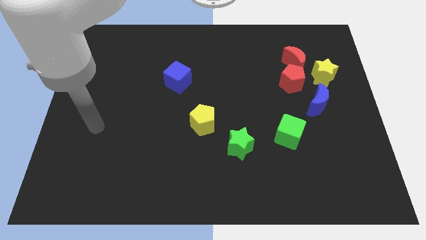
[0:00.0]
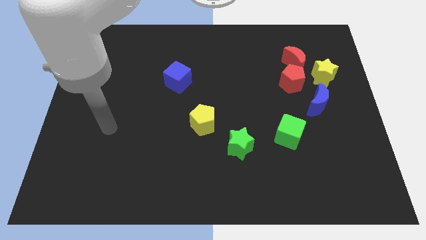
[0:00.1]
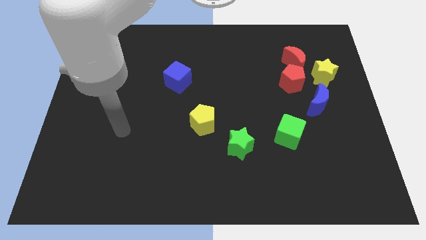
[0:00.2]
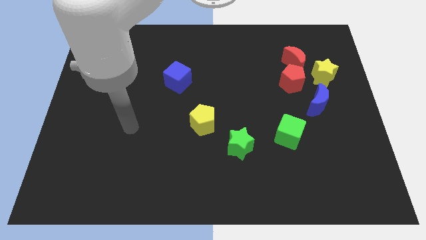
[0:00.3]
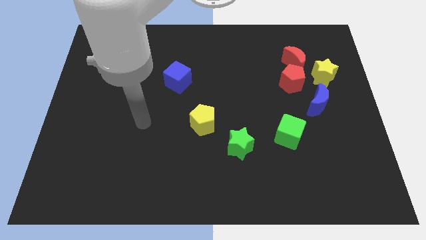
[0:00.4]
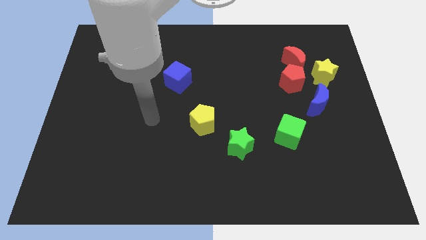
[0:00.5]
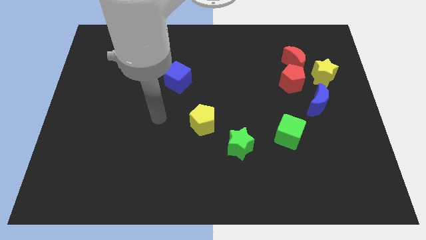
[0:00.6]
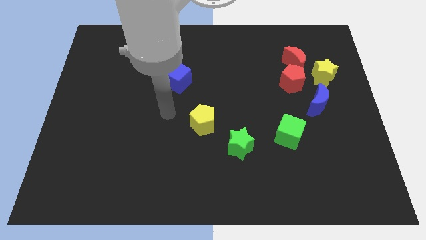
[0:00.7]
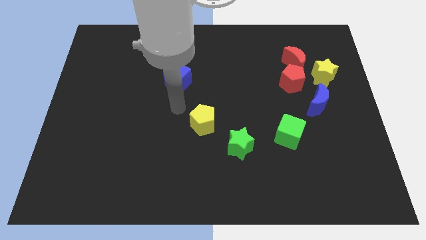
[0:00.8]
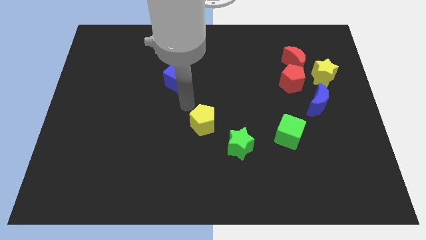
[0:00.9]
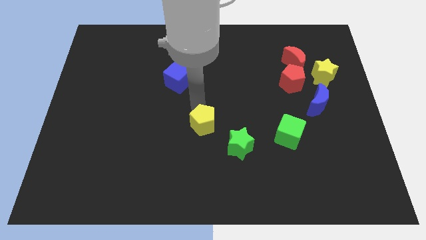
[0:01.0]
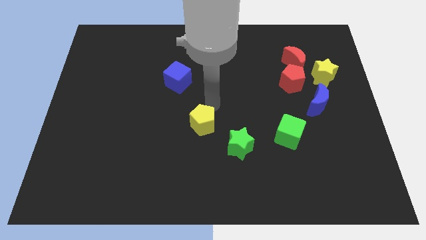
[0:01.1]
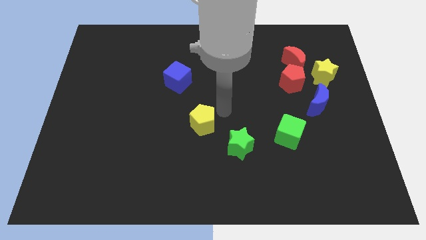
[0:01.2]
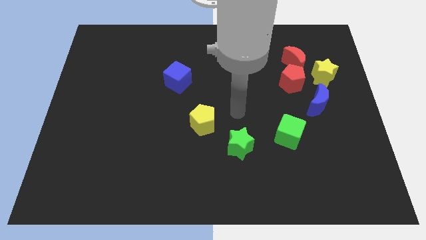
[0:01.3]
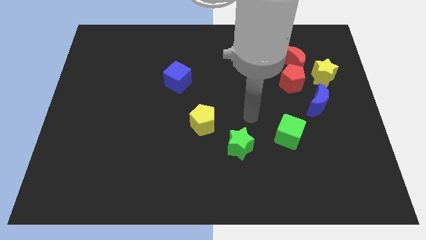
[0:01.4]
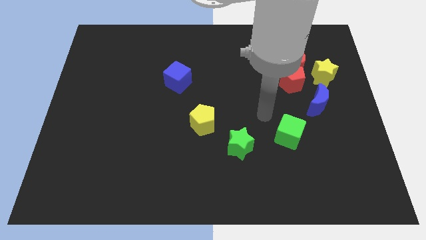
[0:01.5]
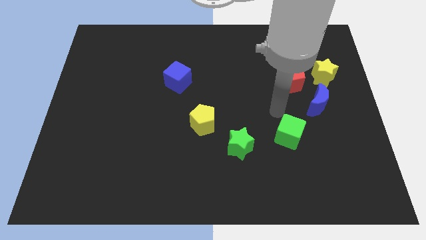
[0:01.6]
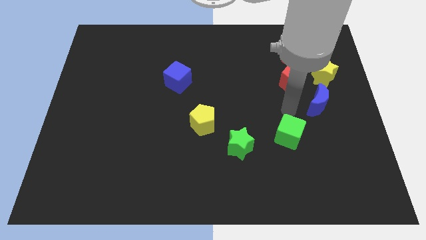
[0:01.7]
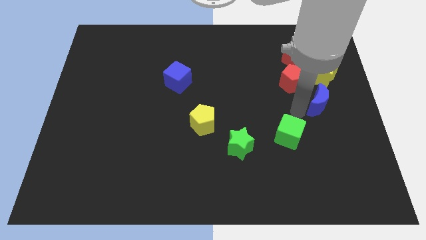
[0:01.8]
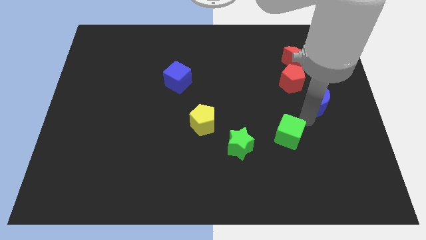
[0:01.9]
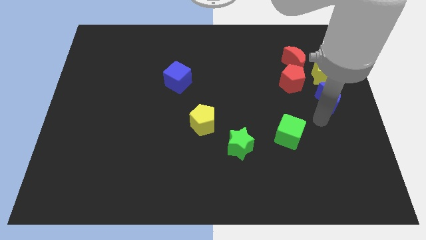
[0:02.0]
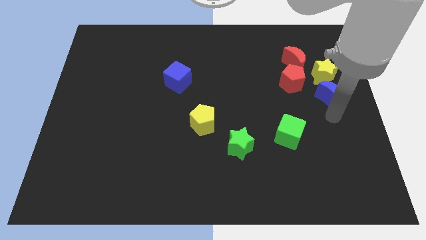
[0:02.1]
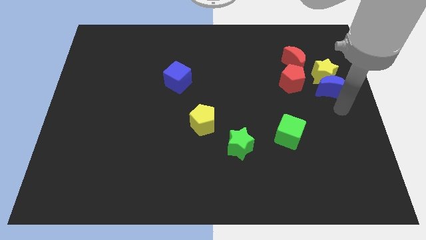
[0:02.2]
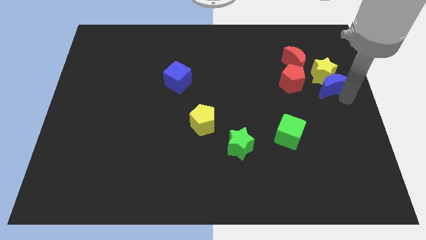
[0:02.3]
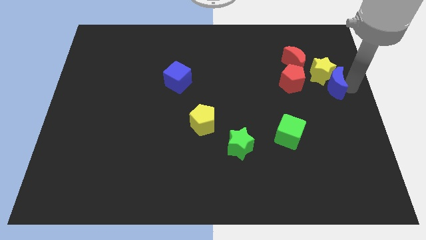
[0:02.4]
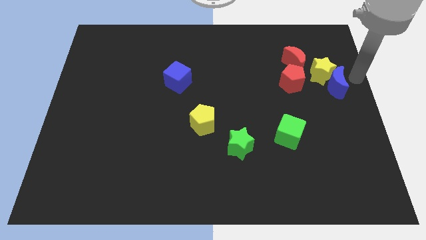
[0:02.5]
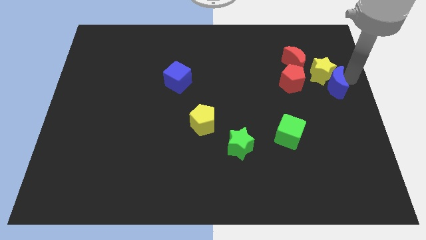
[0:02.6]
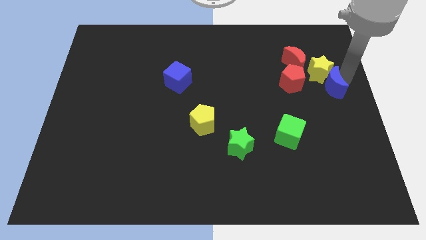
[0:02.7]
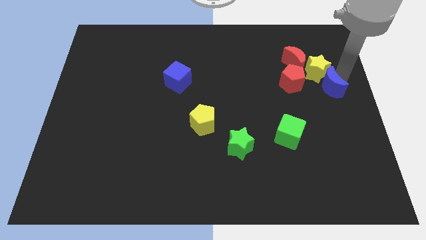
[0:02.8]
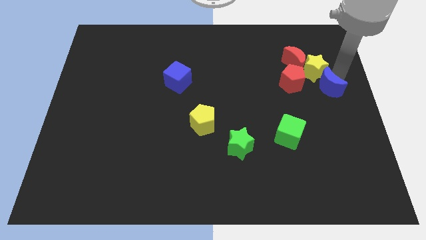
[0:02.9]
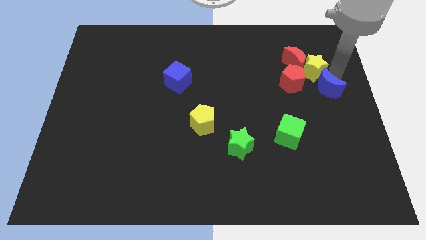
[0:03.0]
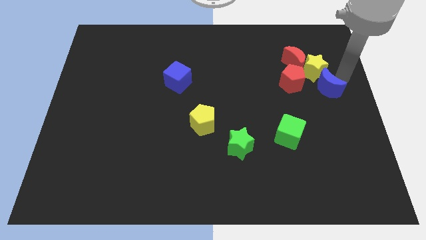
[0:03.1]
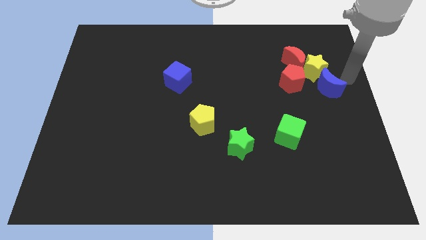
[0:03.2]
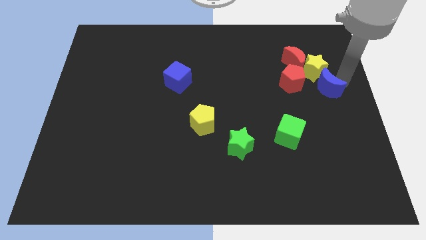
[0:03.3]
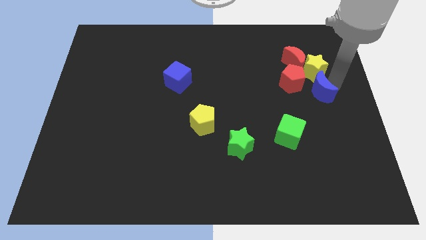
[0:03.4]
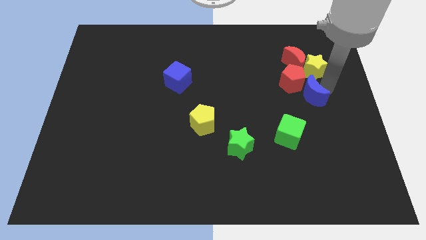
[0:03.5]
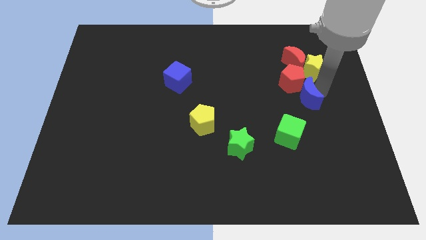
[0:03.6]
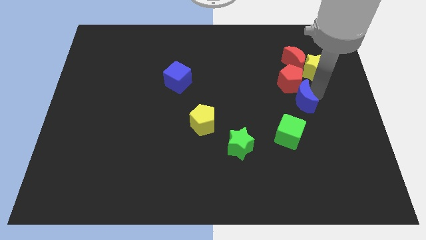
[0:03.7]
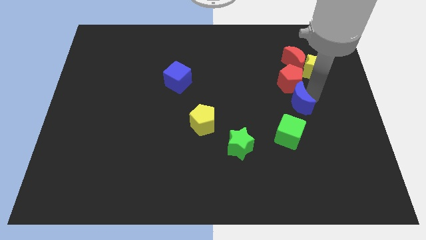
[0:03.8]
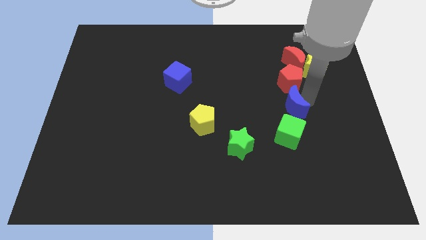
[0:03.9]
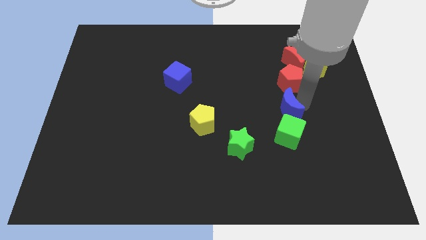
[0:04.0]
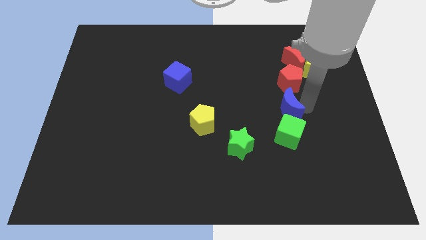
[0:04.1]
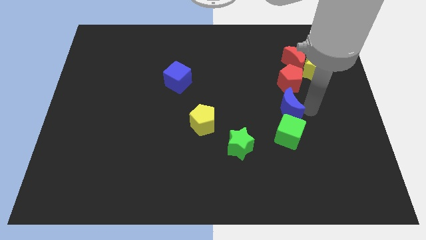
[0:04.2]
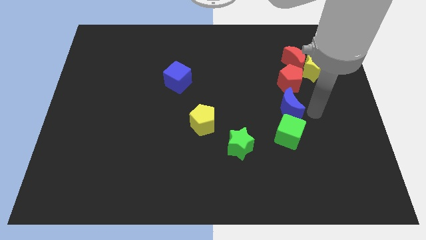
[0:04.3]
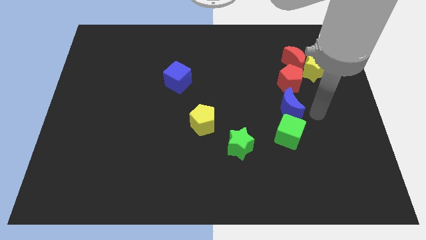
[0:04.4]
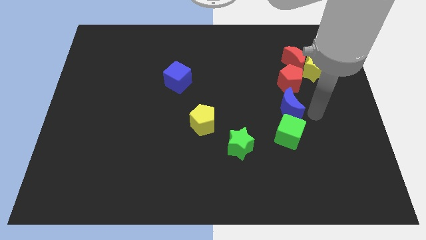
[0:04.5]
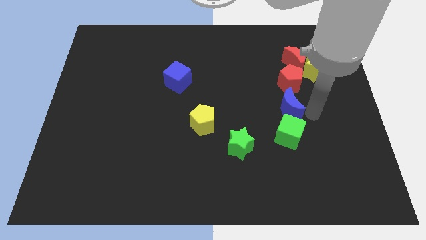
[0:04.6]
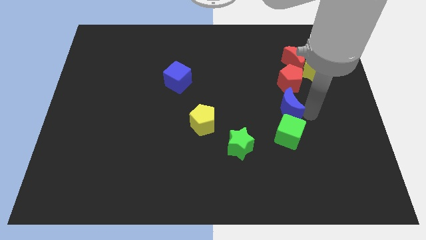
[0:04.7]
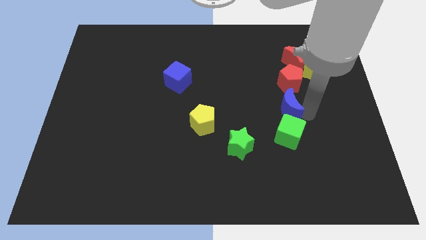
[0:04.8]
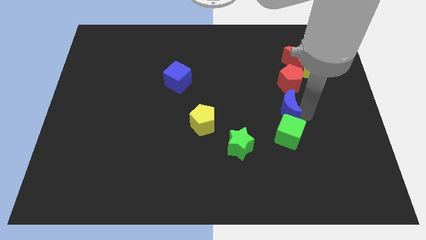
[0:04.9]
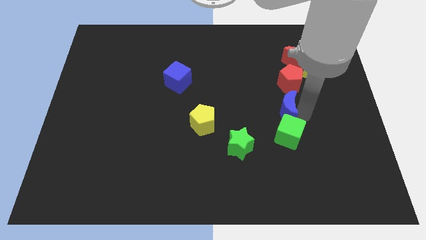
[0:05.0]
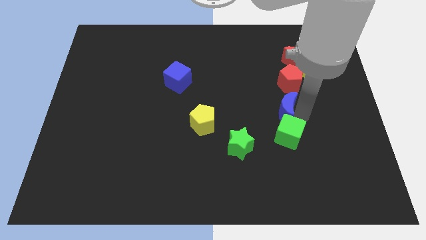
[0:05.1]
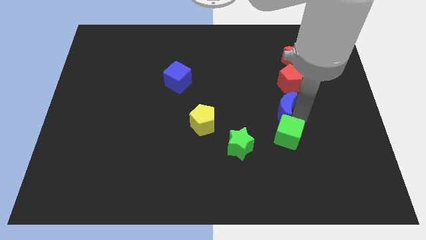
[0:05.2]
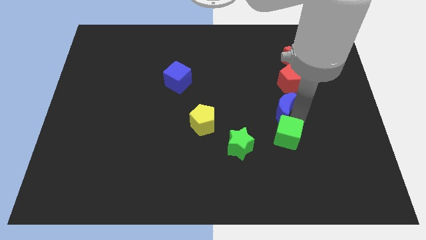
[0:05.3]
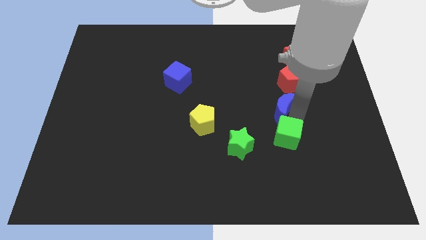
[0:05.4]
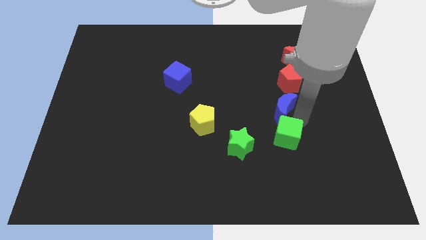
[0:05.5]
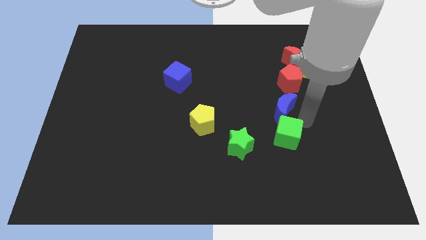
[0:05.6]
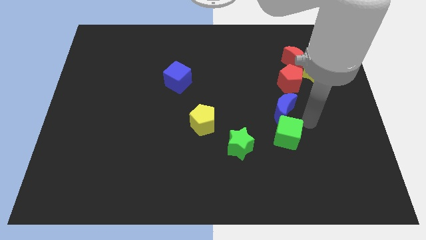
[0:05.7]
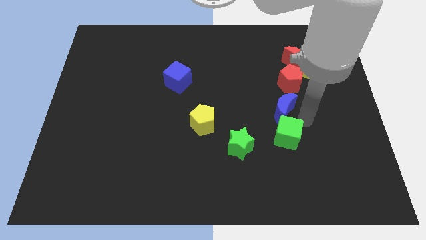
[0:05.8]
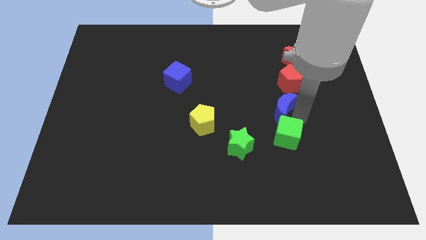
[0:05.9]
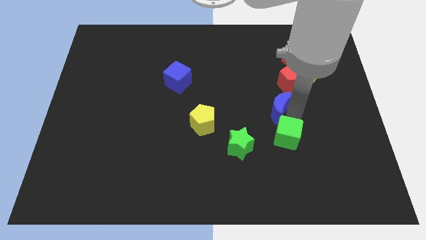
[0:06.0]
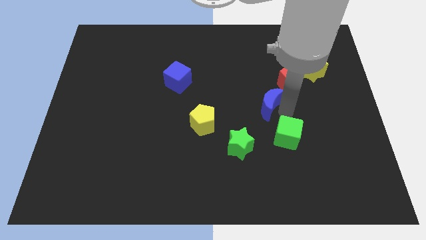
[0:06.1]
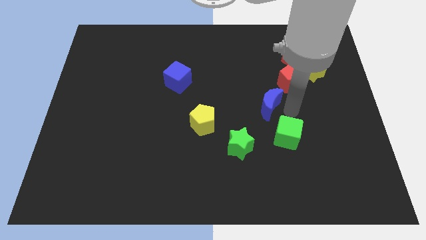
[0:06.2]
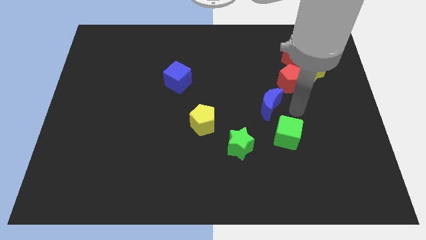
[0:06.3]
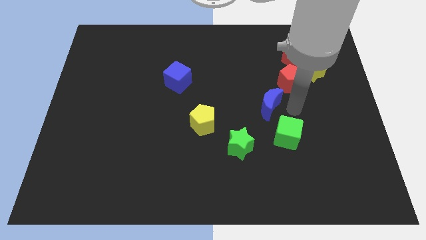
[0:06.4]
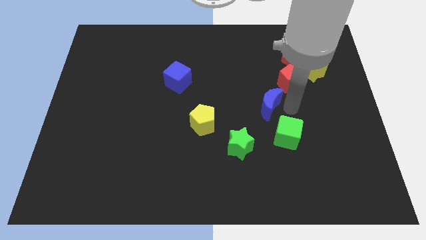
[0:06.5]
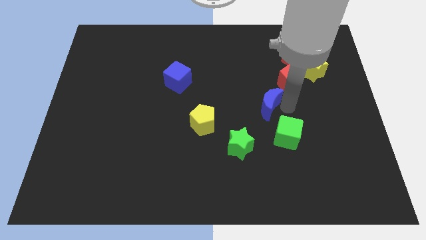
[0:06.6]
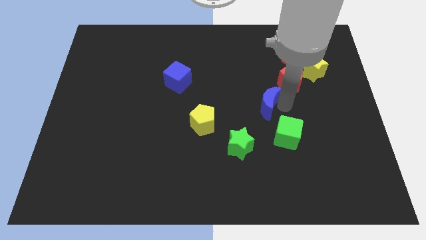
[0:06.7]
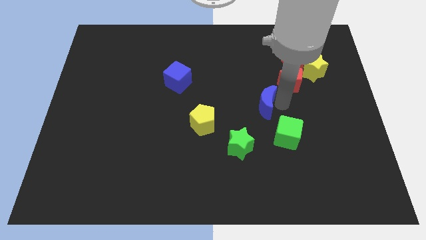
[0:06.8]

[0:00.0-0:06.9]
push the blue moon to the middle of the board

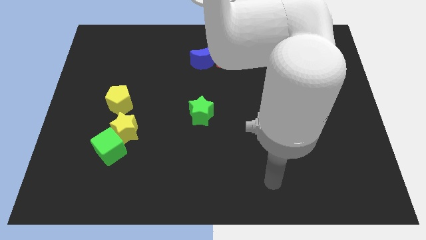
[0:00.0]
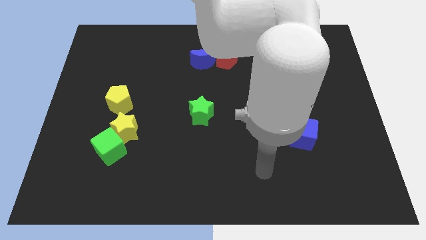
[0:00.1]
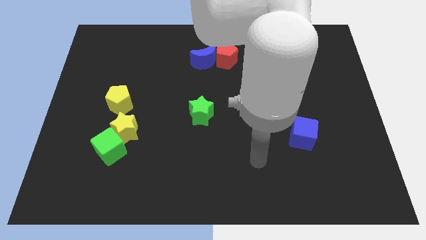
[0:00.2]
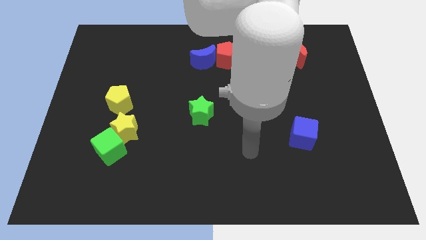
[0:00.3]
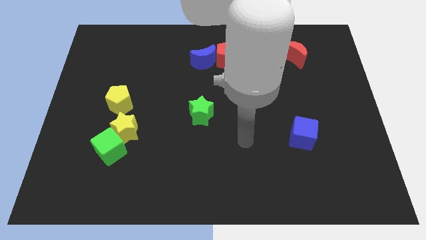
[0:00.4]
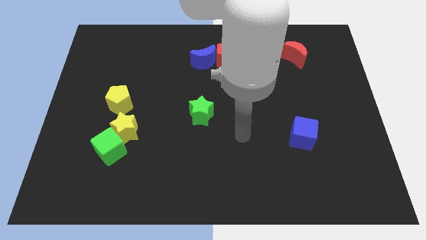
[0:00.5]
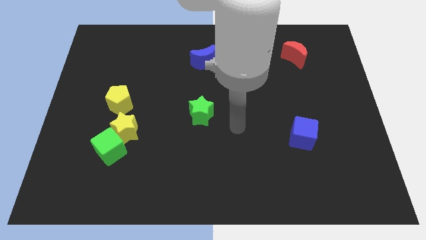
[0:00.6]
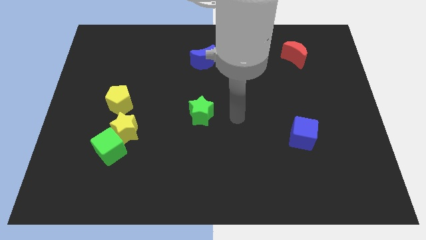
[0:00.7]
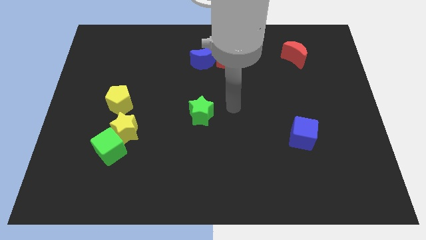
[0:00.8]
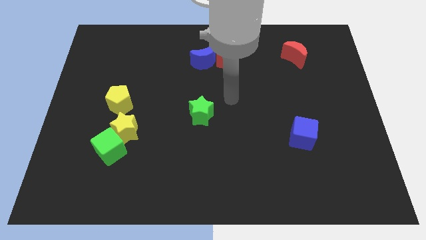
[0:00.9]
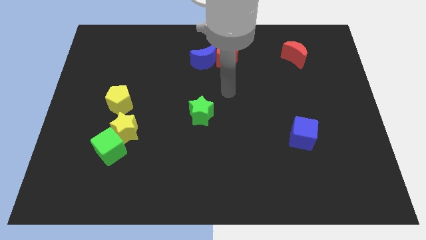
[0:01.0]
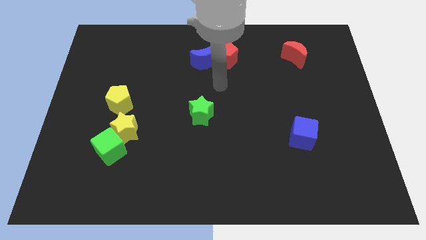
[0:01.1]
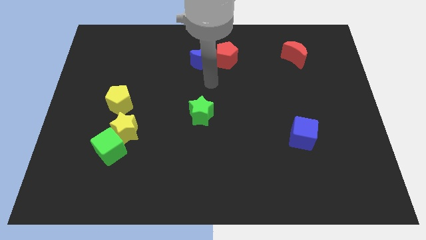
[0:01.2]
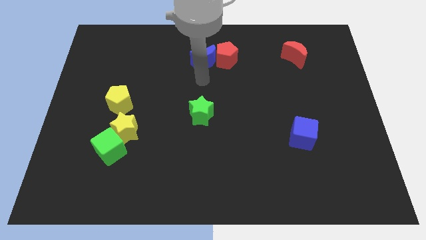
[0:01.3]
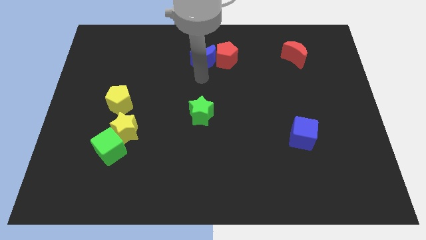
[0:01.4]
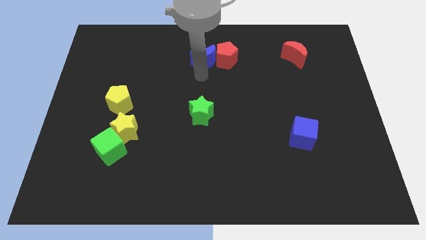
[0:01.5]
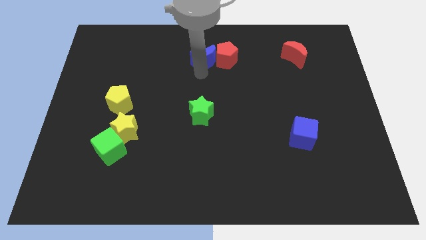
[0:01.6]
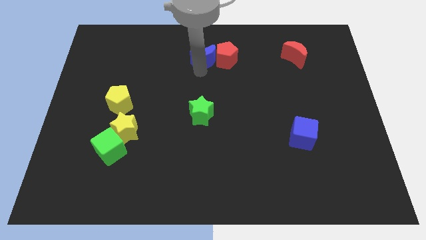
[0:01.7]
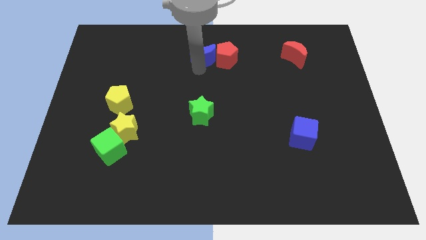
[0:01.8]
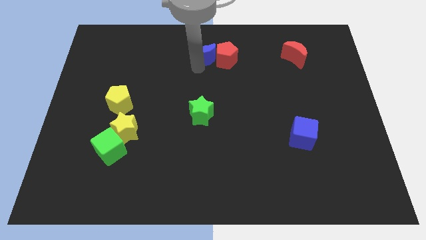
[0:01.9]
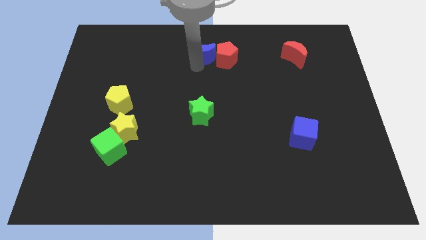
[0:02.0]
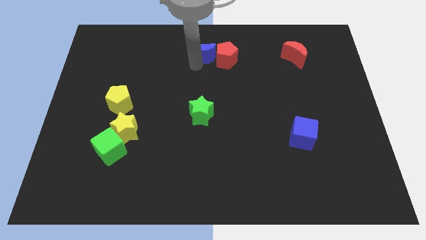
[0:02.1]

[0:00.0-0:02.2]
move the blue moon to the top
